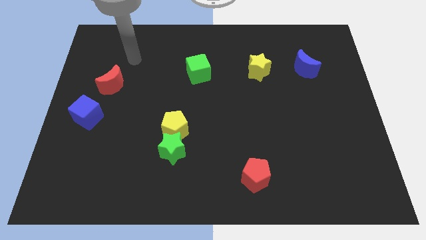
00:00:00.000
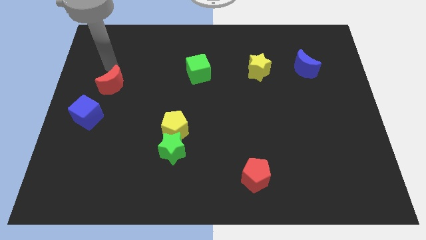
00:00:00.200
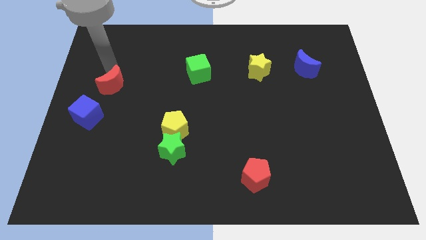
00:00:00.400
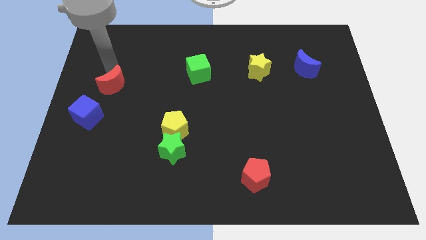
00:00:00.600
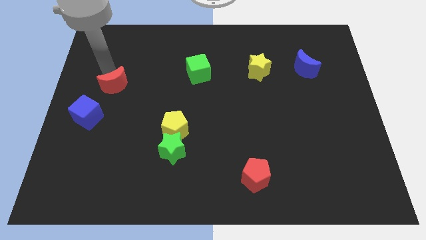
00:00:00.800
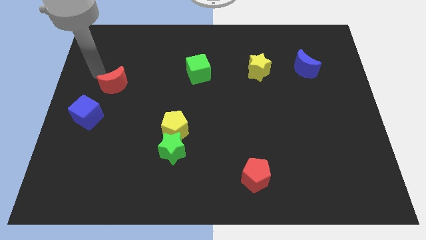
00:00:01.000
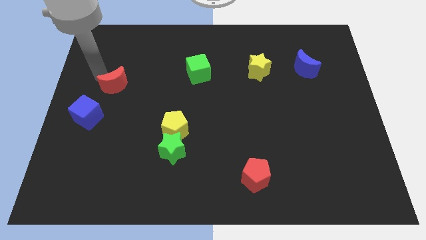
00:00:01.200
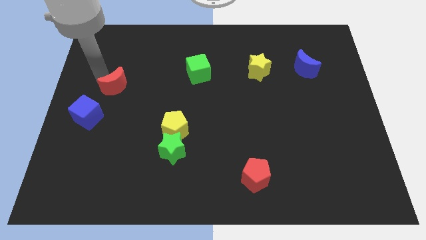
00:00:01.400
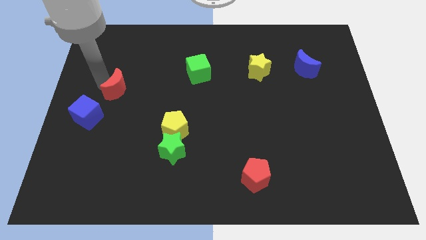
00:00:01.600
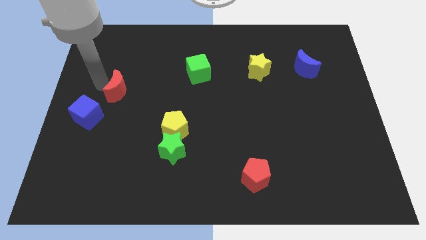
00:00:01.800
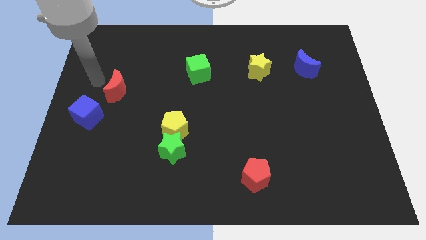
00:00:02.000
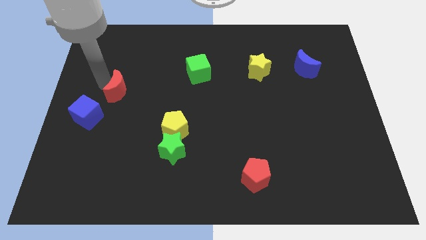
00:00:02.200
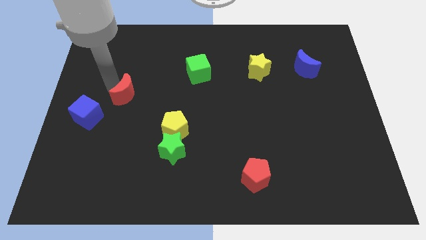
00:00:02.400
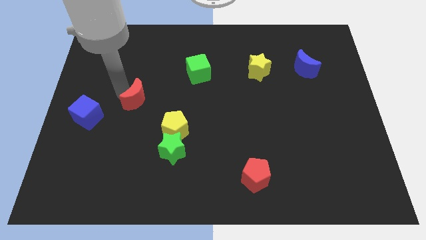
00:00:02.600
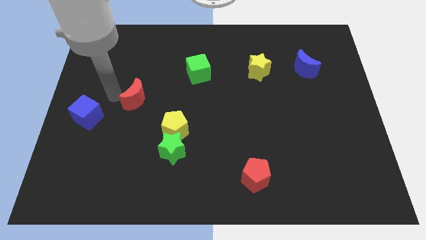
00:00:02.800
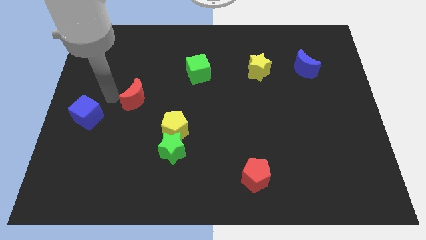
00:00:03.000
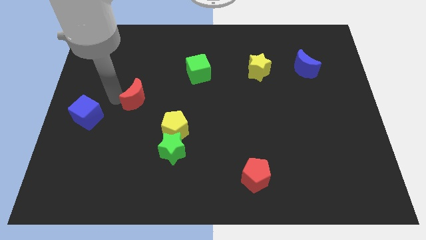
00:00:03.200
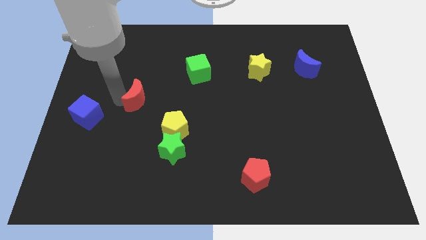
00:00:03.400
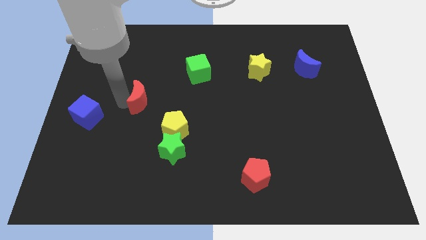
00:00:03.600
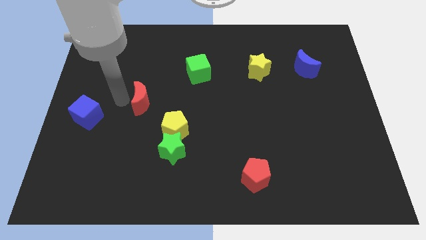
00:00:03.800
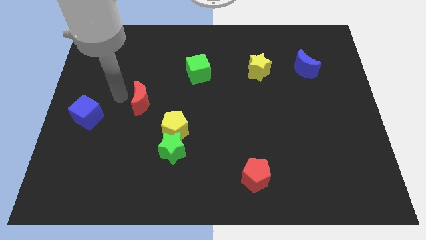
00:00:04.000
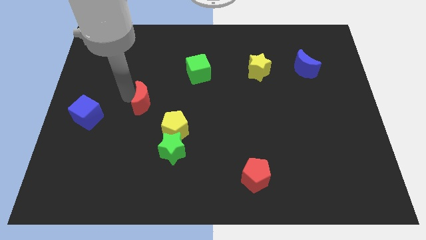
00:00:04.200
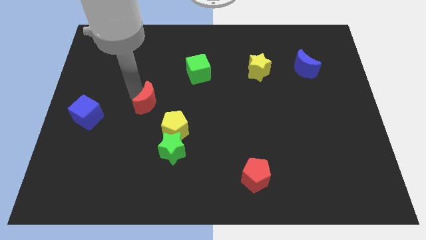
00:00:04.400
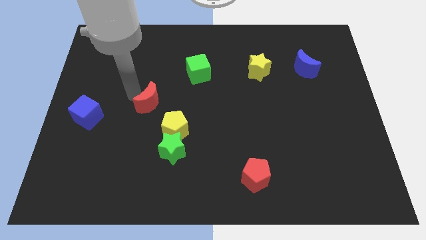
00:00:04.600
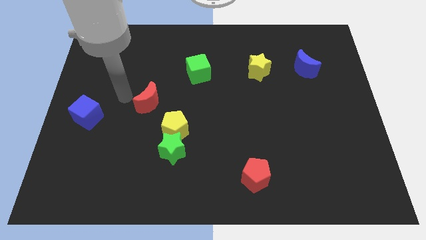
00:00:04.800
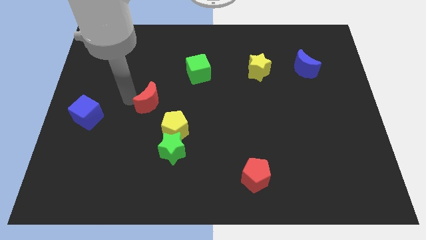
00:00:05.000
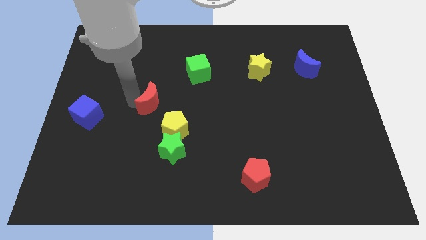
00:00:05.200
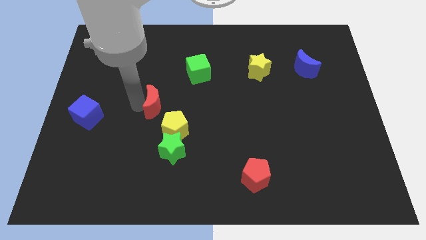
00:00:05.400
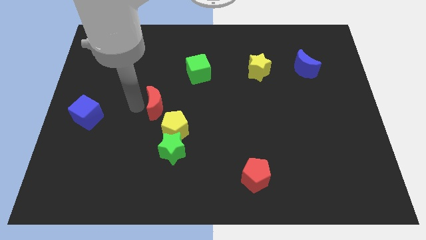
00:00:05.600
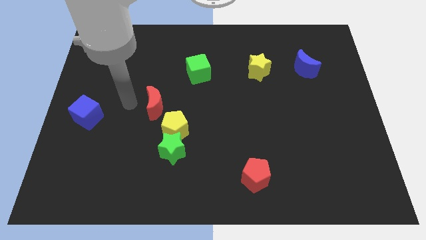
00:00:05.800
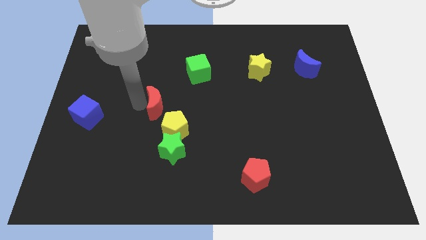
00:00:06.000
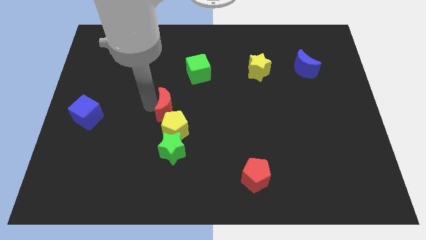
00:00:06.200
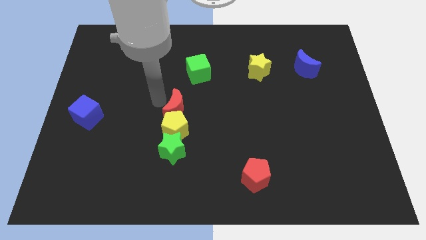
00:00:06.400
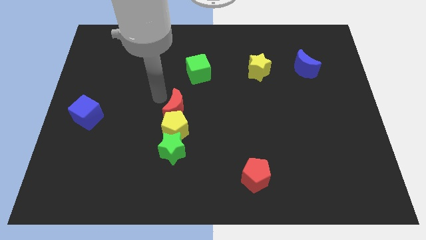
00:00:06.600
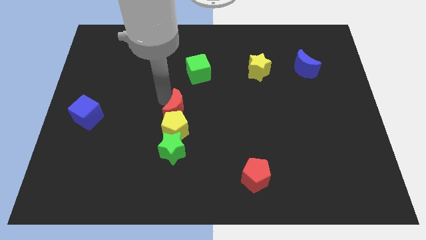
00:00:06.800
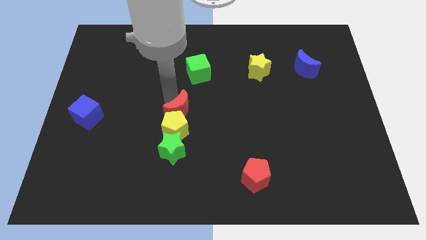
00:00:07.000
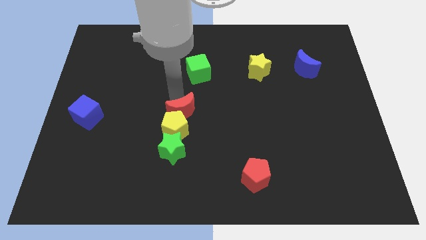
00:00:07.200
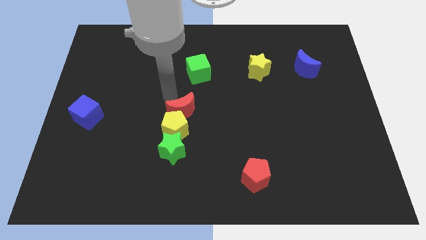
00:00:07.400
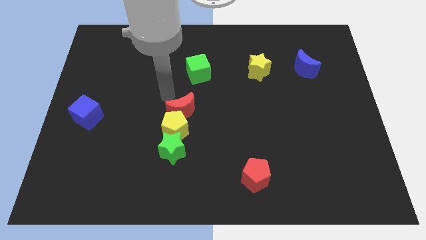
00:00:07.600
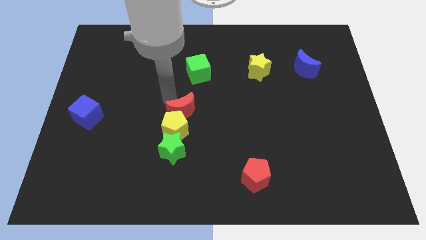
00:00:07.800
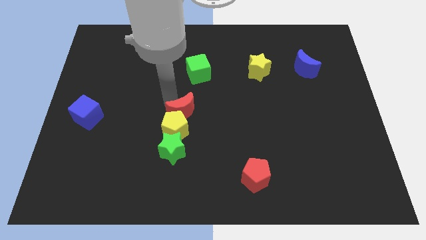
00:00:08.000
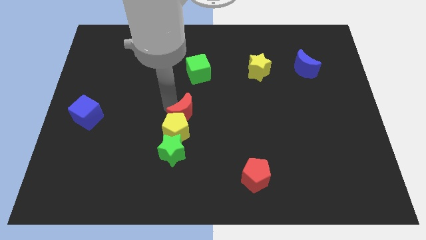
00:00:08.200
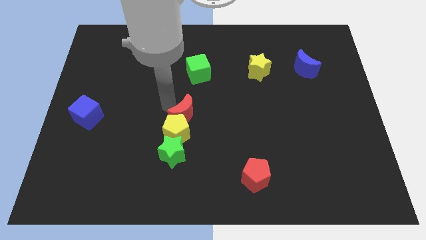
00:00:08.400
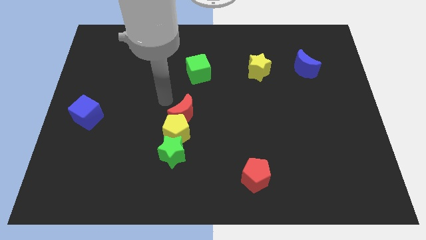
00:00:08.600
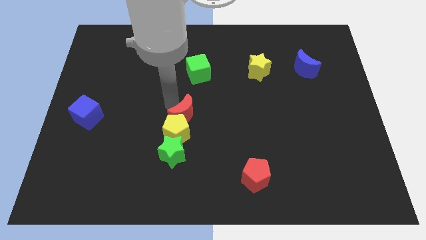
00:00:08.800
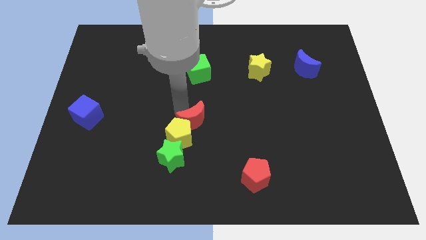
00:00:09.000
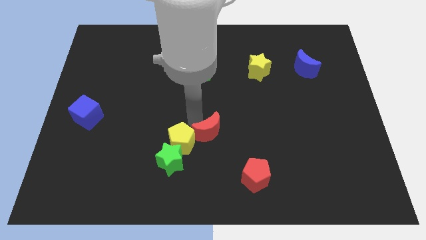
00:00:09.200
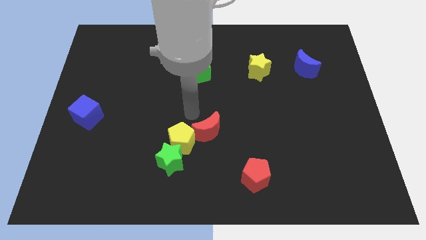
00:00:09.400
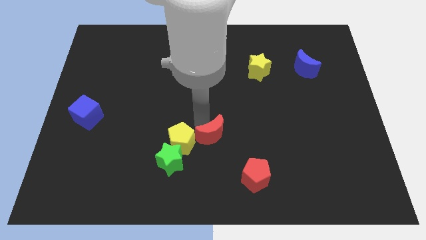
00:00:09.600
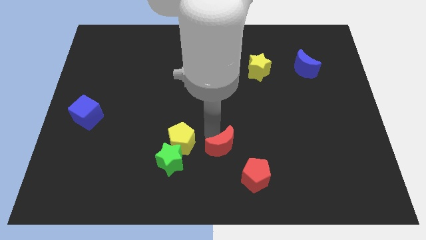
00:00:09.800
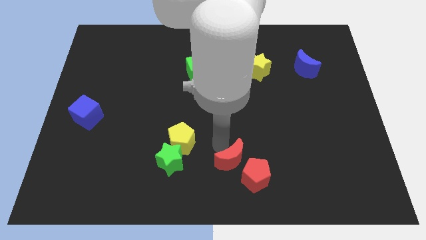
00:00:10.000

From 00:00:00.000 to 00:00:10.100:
move the red moon next to the red pentagon

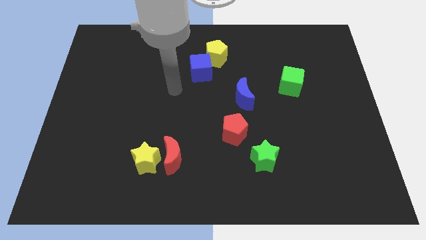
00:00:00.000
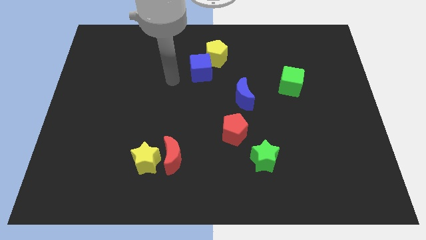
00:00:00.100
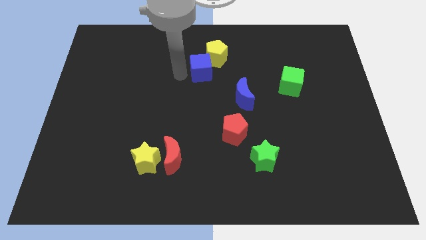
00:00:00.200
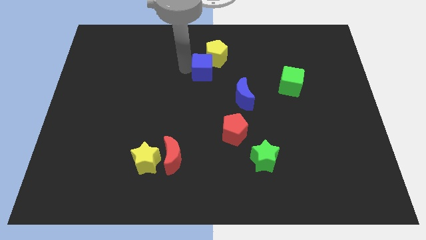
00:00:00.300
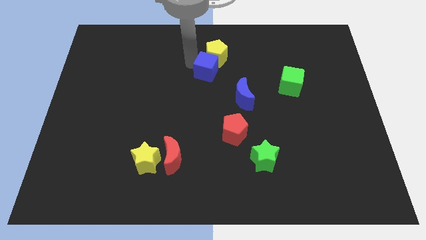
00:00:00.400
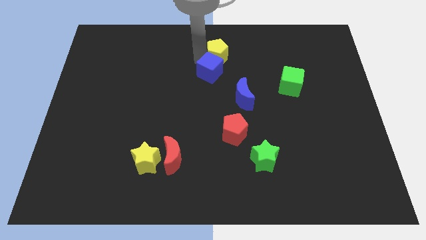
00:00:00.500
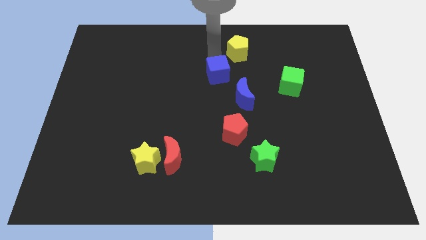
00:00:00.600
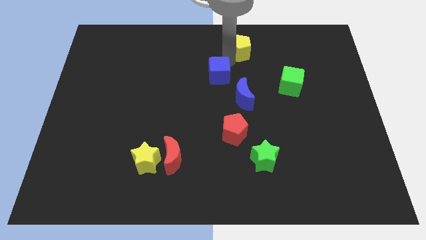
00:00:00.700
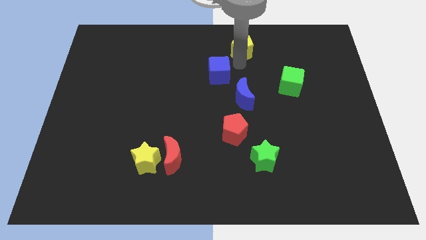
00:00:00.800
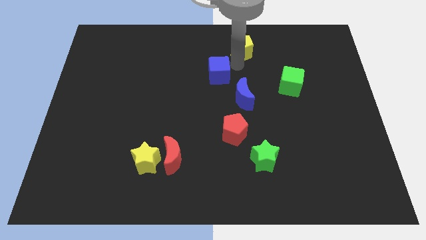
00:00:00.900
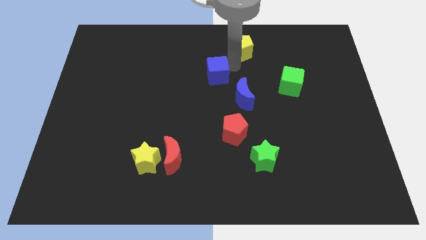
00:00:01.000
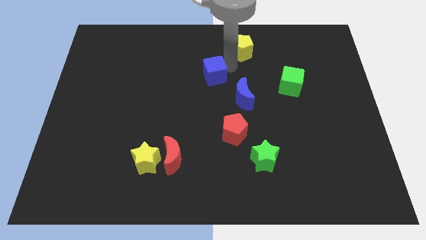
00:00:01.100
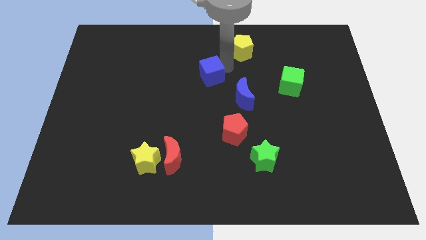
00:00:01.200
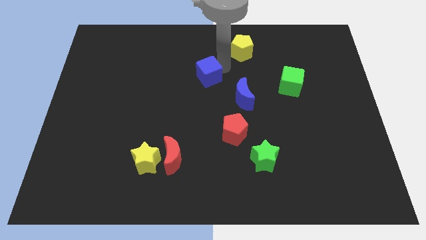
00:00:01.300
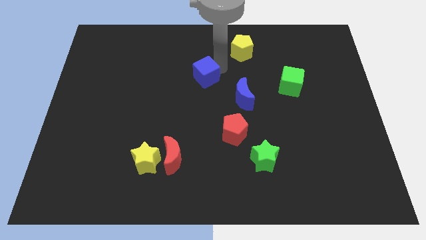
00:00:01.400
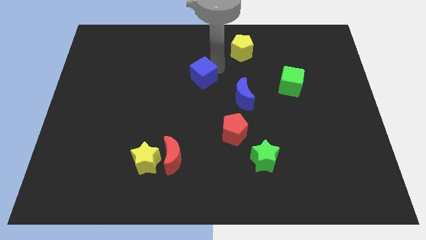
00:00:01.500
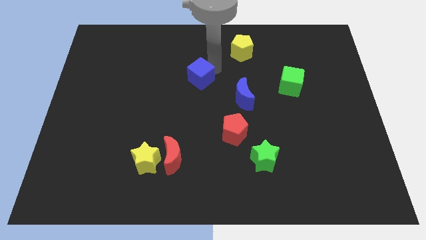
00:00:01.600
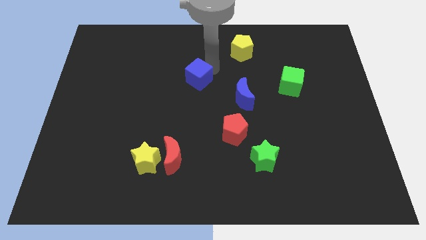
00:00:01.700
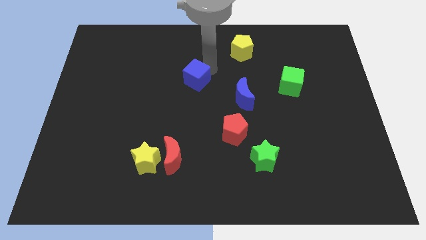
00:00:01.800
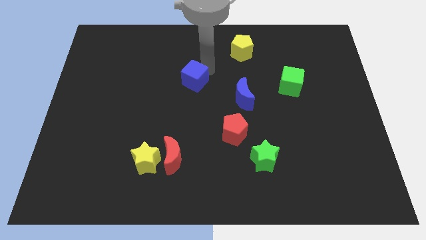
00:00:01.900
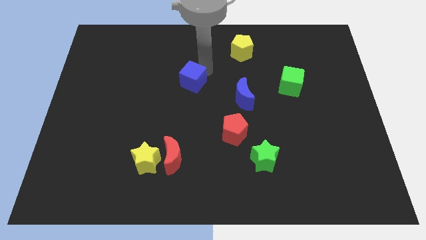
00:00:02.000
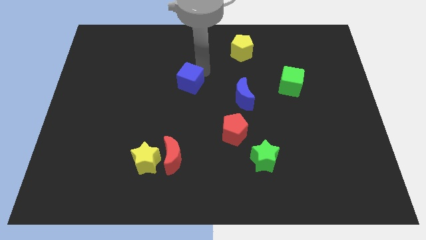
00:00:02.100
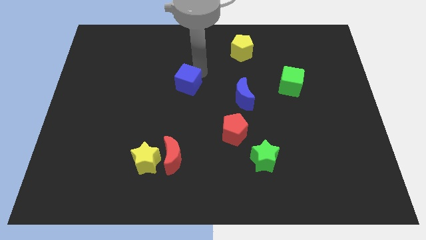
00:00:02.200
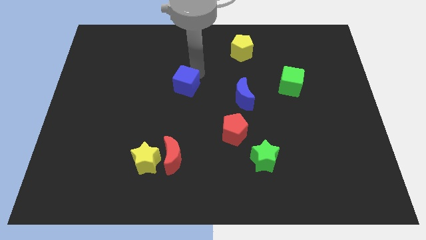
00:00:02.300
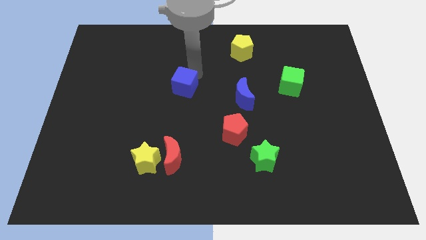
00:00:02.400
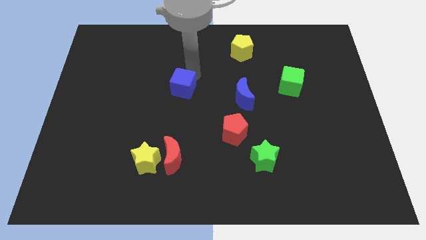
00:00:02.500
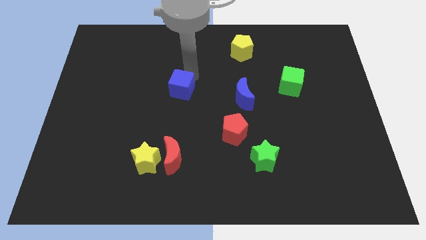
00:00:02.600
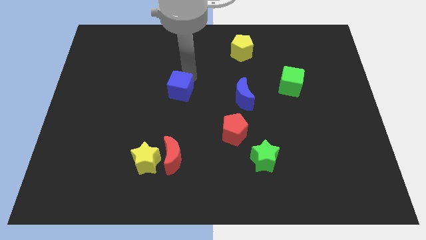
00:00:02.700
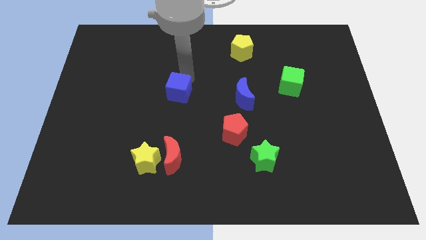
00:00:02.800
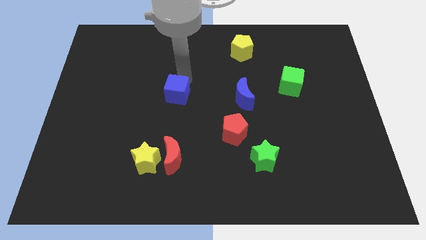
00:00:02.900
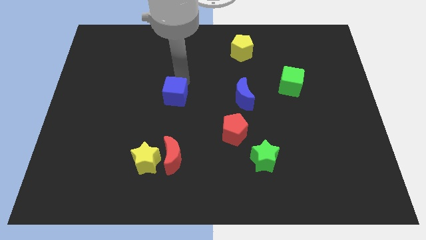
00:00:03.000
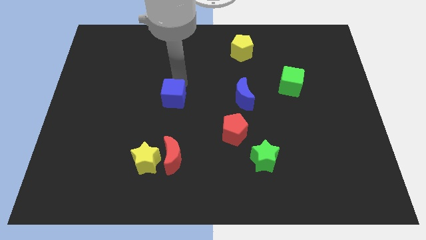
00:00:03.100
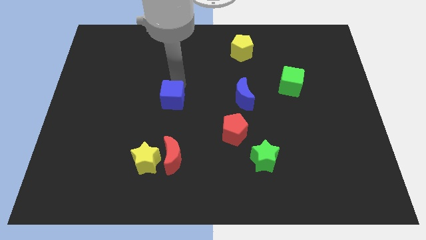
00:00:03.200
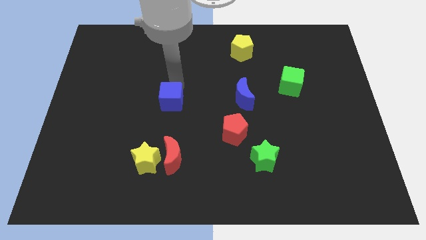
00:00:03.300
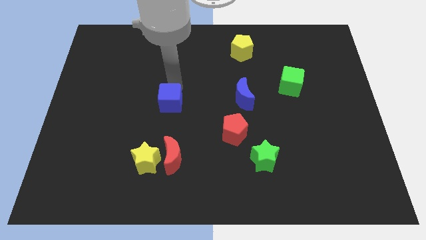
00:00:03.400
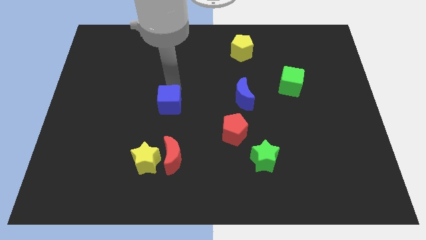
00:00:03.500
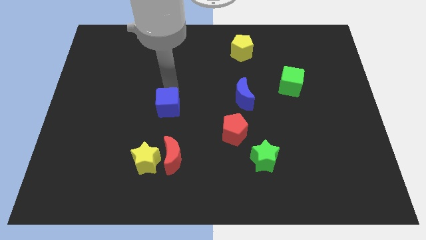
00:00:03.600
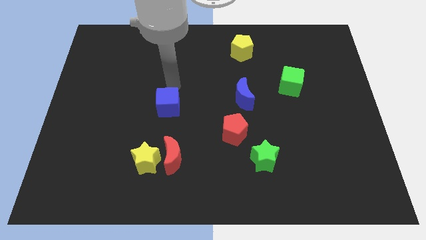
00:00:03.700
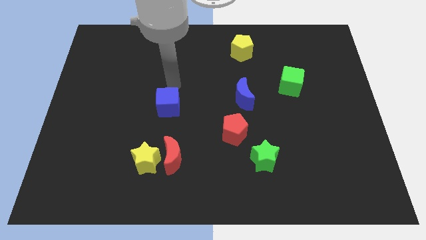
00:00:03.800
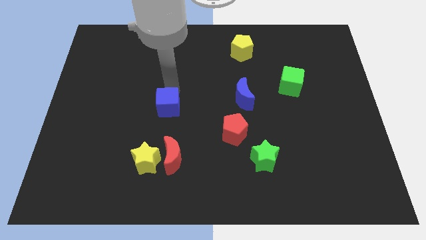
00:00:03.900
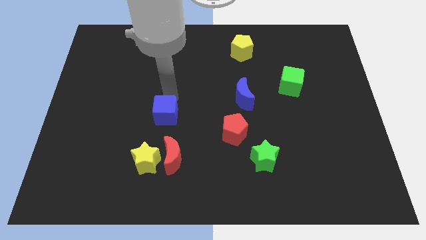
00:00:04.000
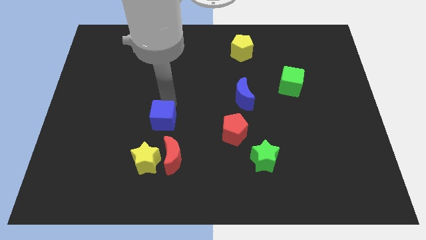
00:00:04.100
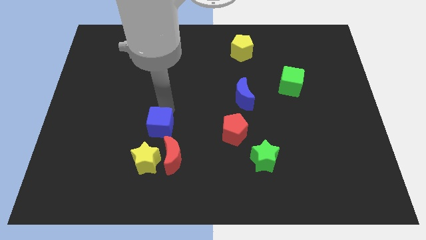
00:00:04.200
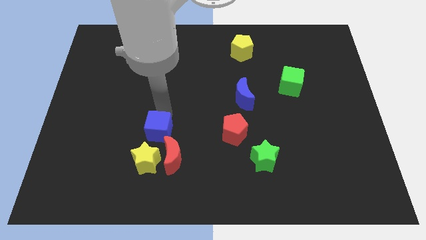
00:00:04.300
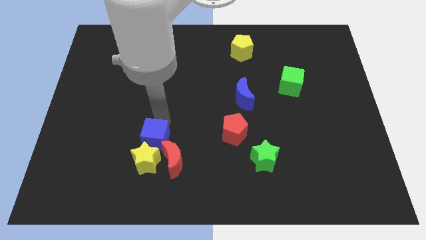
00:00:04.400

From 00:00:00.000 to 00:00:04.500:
push the blue cube to the yellow star
